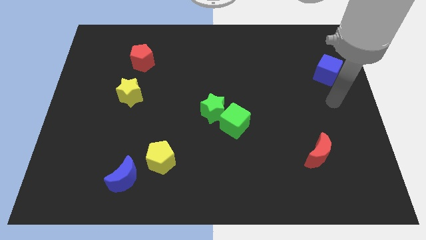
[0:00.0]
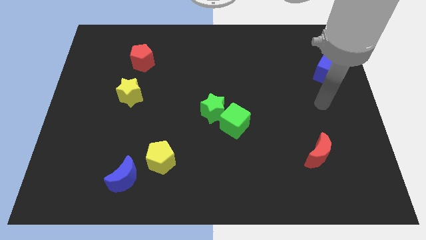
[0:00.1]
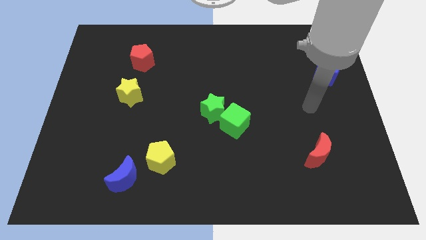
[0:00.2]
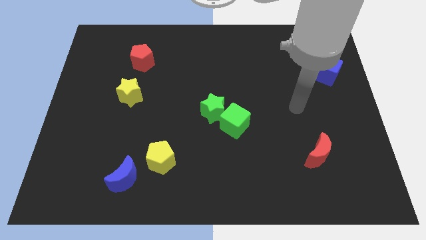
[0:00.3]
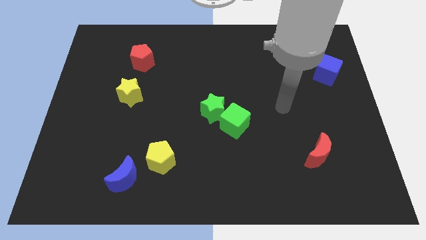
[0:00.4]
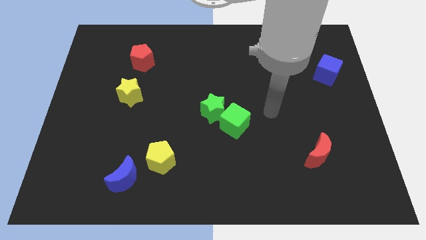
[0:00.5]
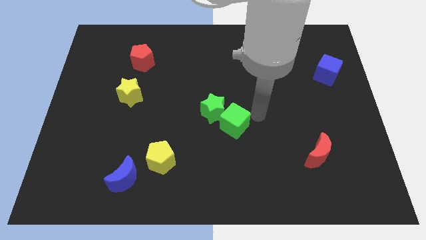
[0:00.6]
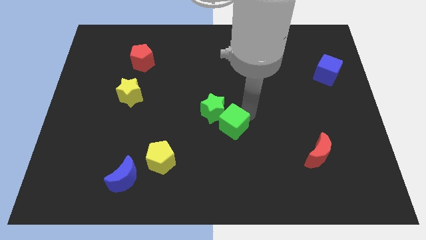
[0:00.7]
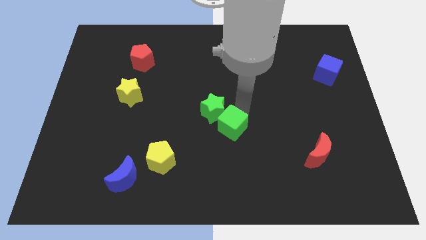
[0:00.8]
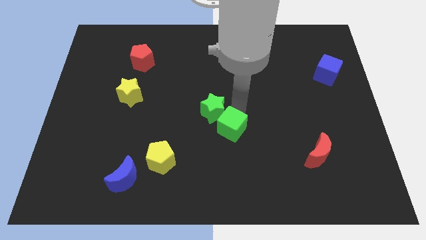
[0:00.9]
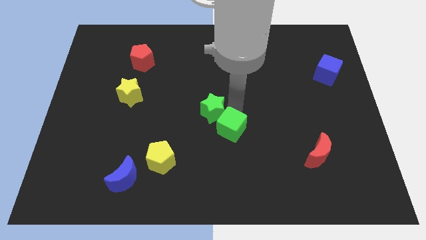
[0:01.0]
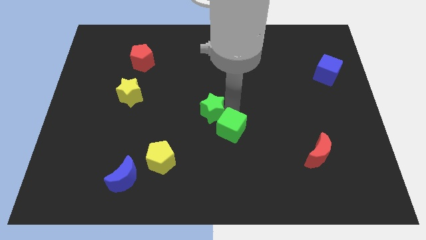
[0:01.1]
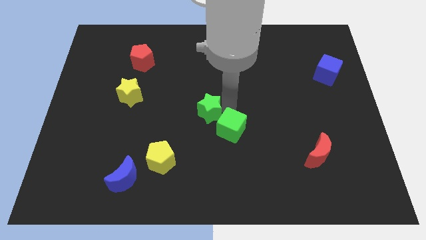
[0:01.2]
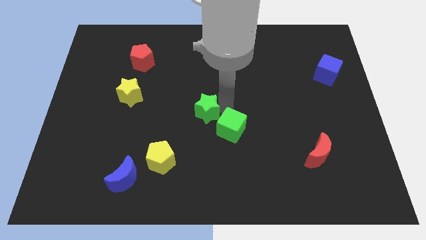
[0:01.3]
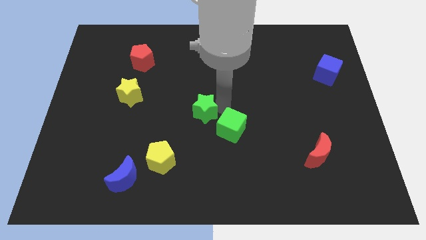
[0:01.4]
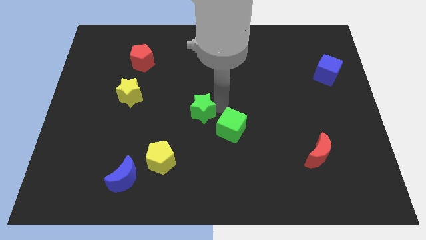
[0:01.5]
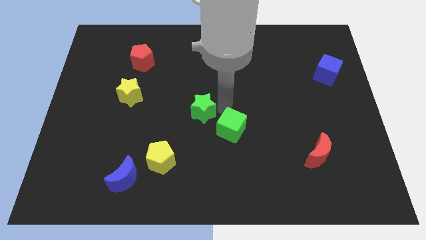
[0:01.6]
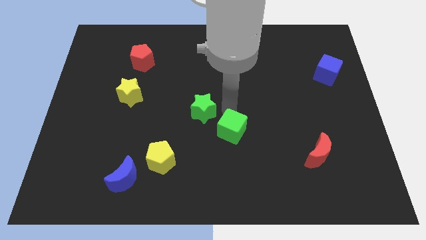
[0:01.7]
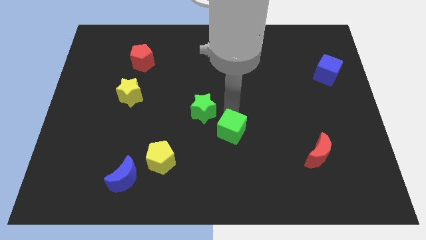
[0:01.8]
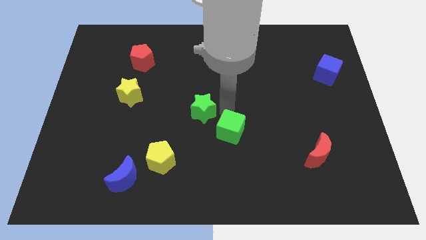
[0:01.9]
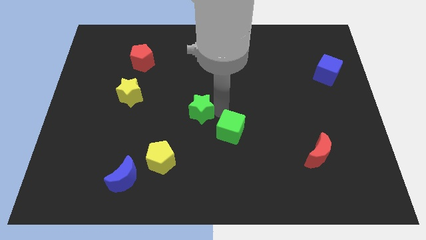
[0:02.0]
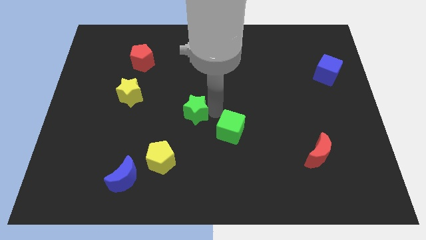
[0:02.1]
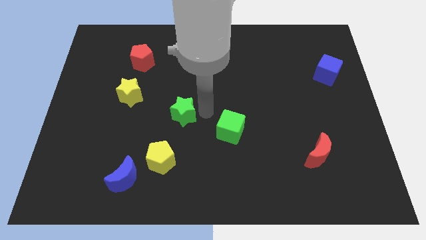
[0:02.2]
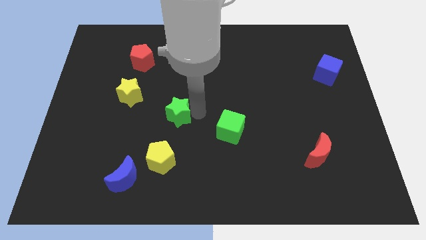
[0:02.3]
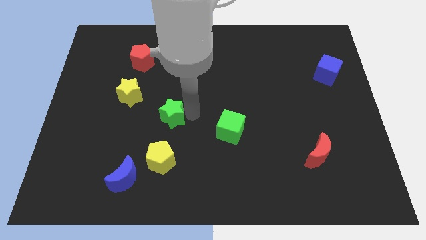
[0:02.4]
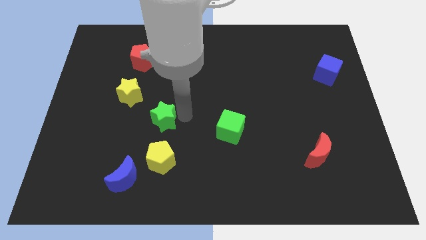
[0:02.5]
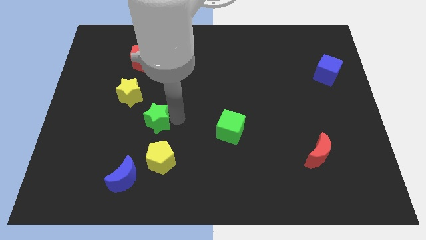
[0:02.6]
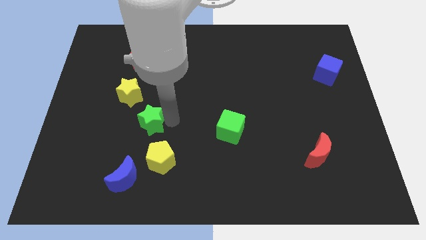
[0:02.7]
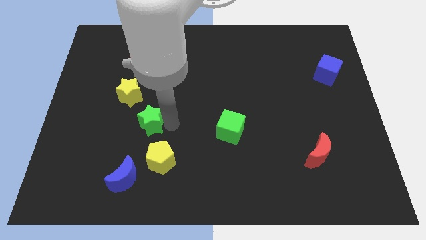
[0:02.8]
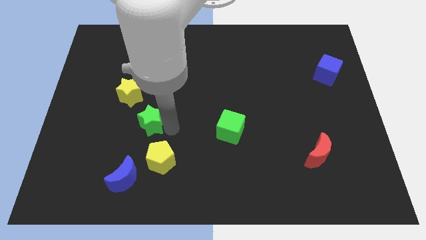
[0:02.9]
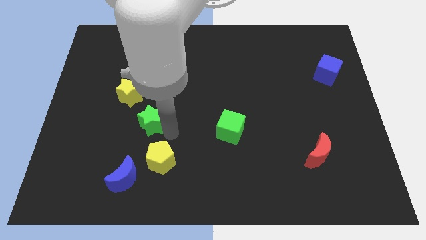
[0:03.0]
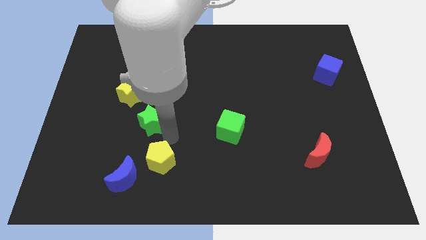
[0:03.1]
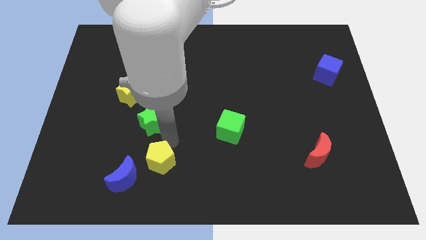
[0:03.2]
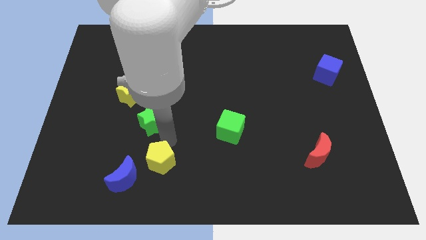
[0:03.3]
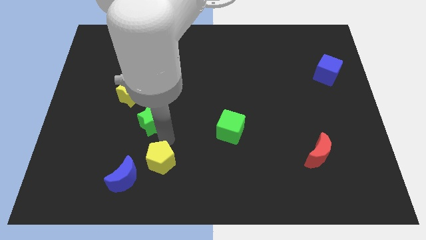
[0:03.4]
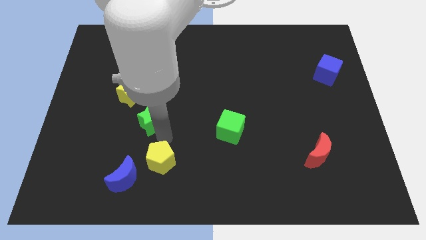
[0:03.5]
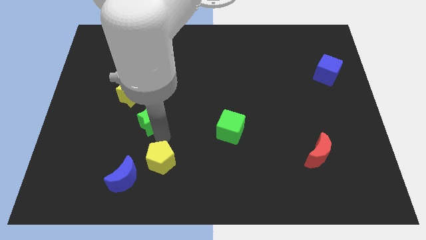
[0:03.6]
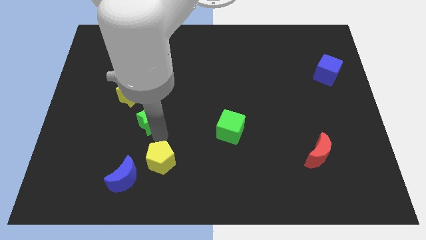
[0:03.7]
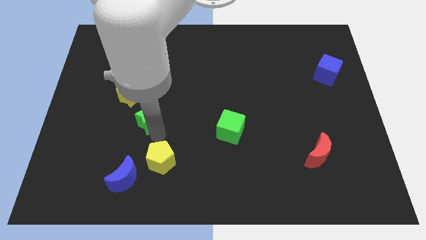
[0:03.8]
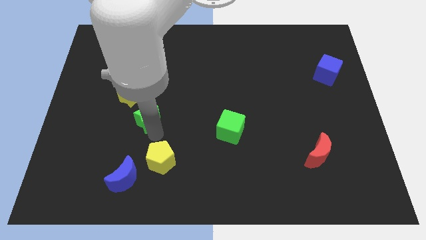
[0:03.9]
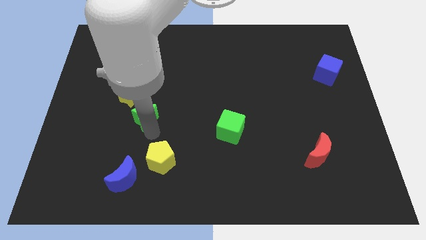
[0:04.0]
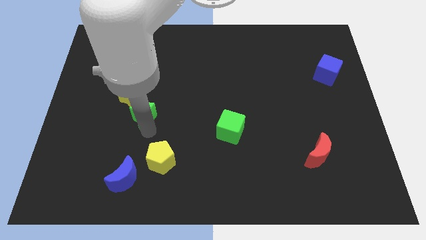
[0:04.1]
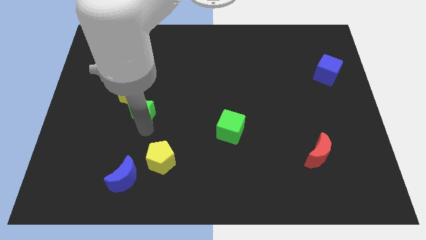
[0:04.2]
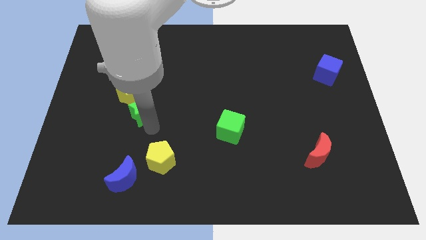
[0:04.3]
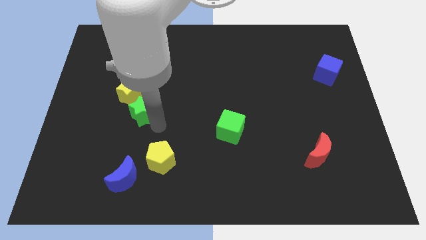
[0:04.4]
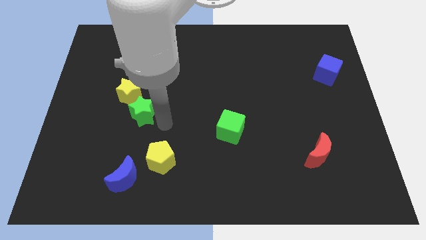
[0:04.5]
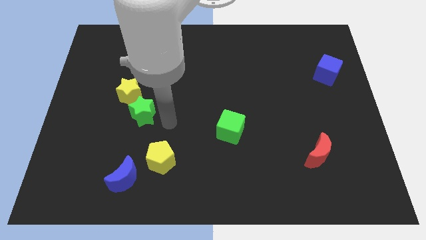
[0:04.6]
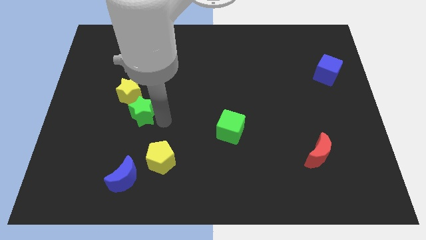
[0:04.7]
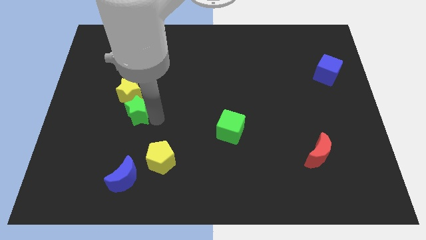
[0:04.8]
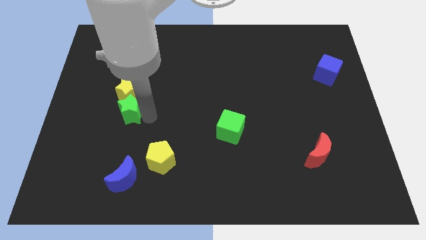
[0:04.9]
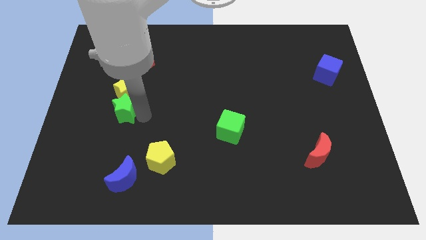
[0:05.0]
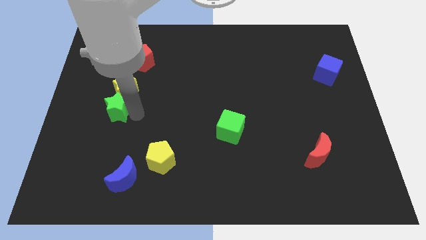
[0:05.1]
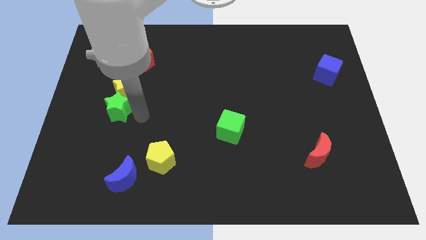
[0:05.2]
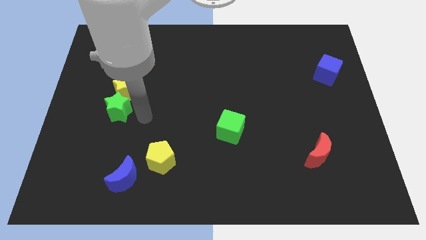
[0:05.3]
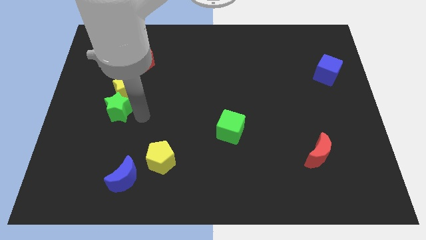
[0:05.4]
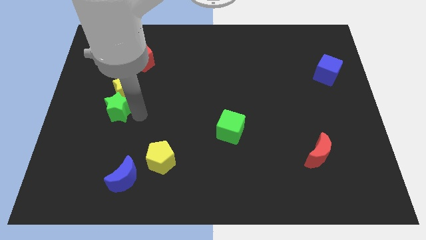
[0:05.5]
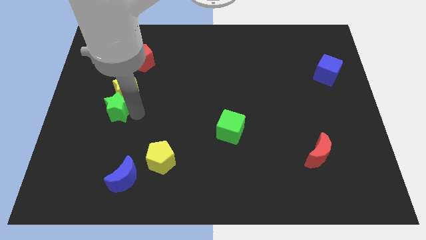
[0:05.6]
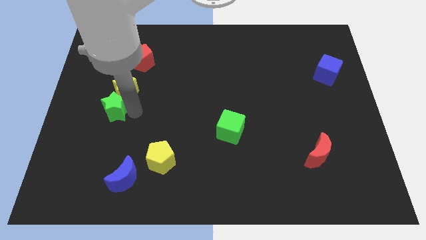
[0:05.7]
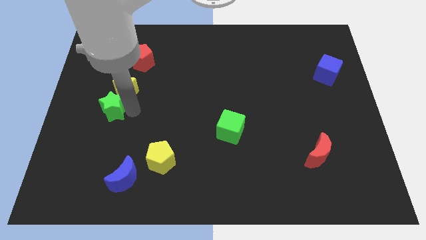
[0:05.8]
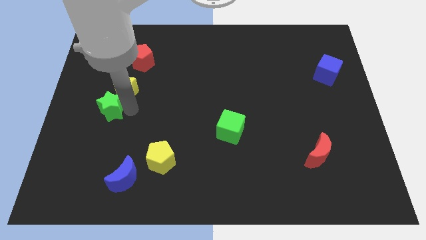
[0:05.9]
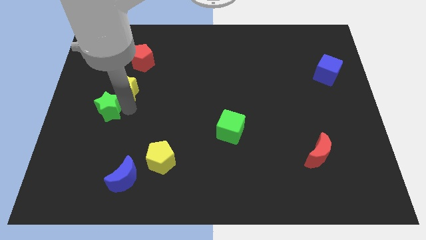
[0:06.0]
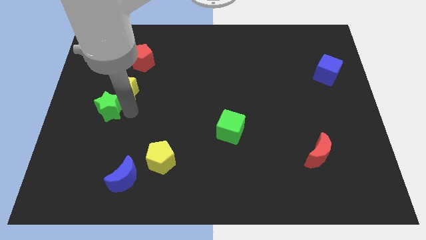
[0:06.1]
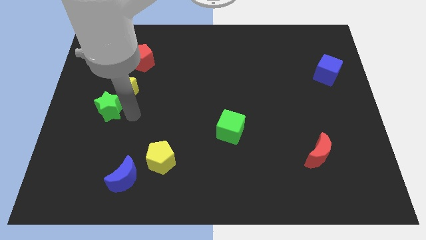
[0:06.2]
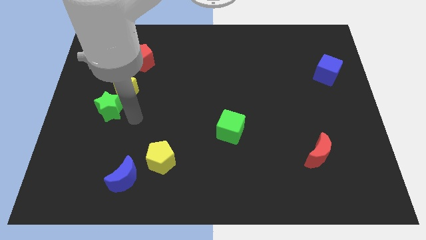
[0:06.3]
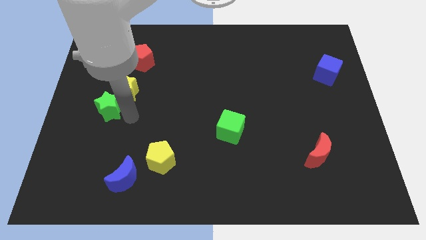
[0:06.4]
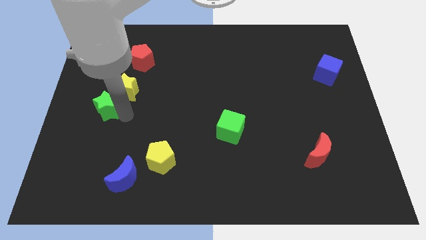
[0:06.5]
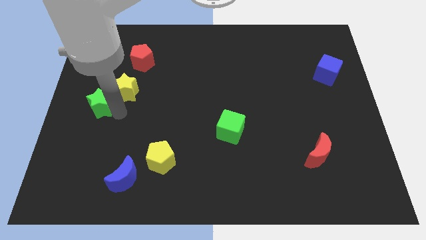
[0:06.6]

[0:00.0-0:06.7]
slide the green star to the left side
